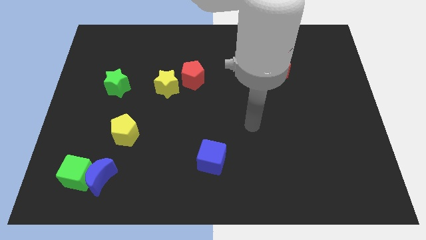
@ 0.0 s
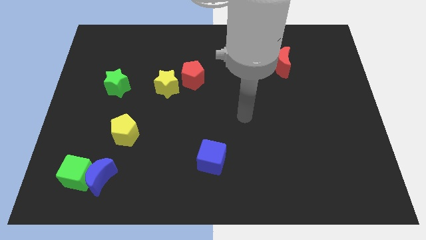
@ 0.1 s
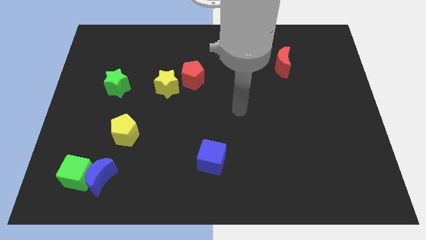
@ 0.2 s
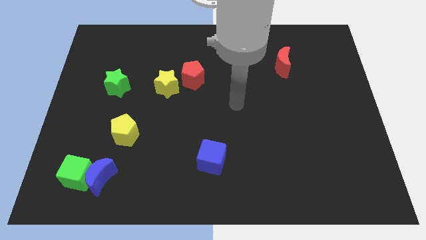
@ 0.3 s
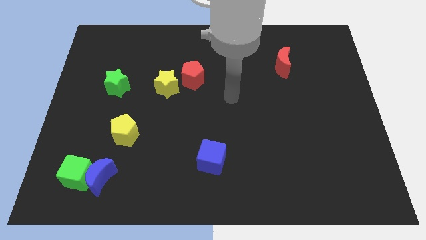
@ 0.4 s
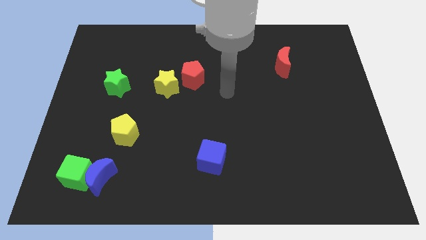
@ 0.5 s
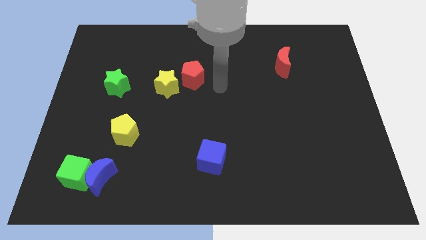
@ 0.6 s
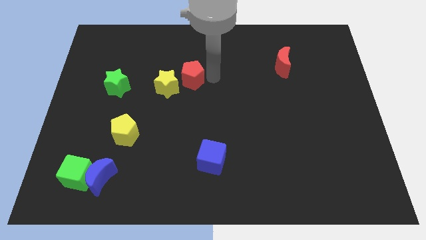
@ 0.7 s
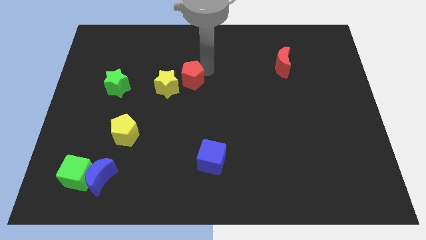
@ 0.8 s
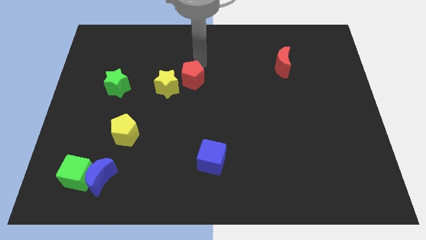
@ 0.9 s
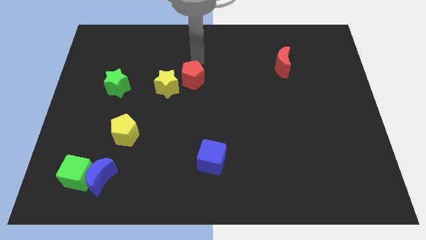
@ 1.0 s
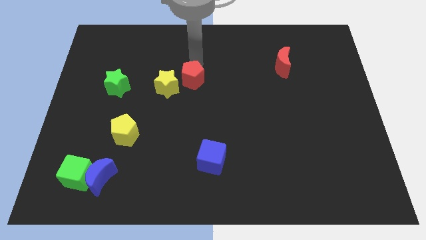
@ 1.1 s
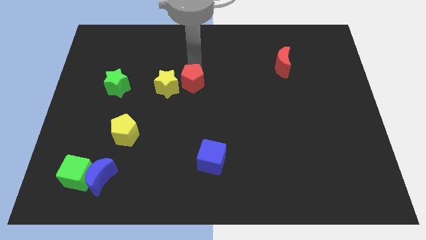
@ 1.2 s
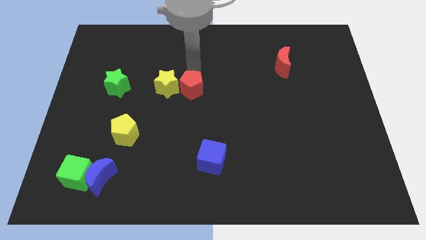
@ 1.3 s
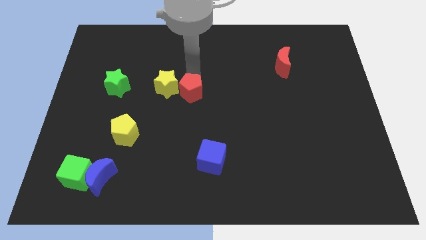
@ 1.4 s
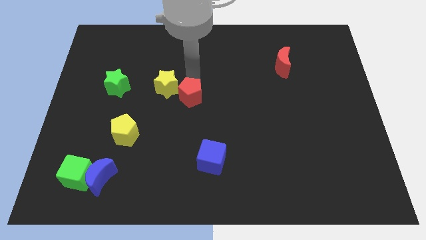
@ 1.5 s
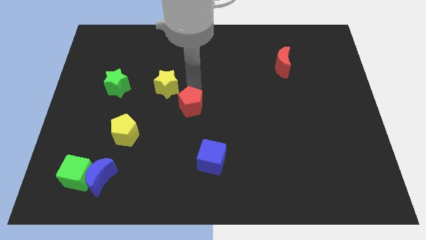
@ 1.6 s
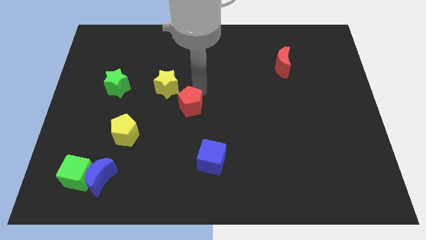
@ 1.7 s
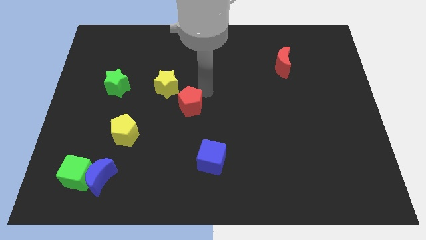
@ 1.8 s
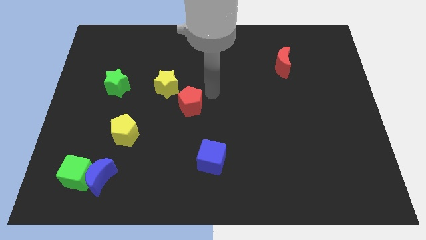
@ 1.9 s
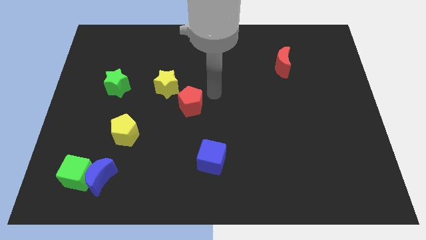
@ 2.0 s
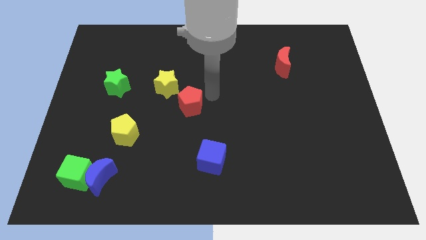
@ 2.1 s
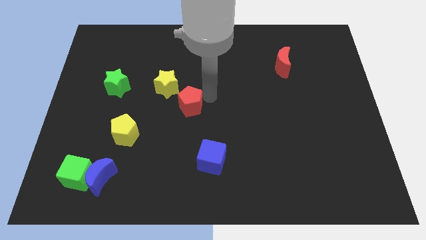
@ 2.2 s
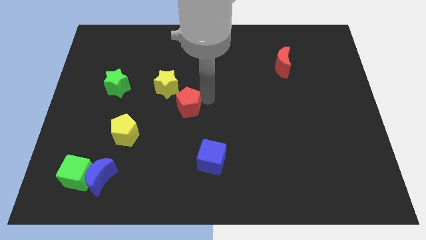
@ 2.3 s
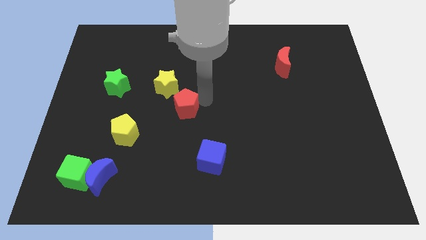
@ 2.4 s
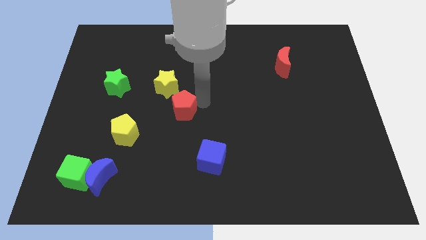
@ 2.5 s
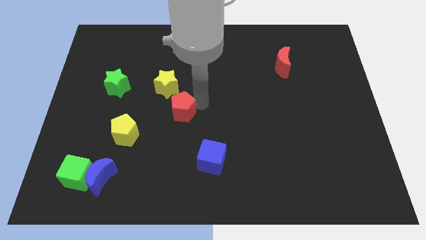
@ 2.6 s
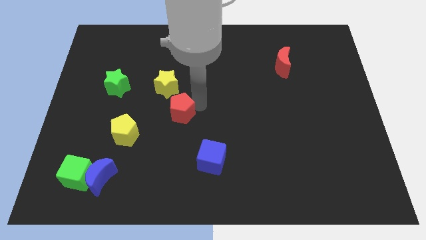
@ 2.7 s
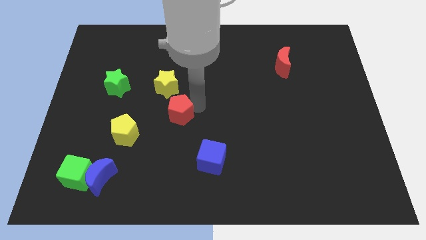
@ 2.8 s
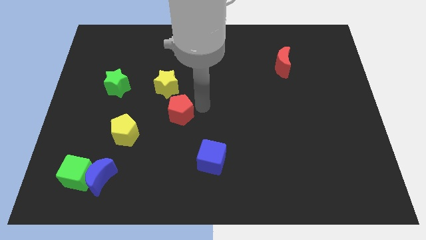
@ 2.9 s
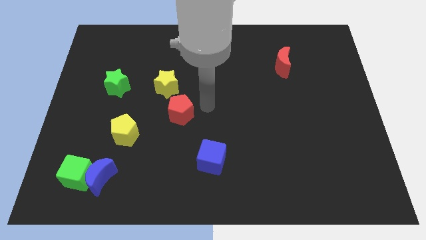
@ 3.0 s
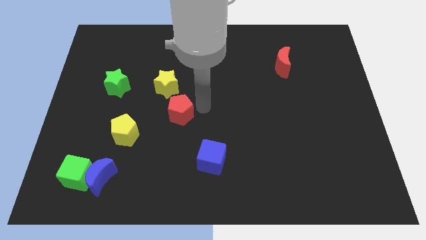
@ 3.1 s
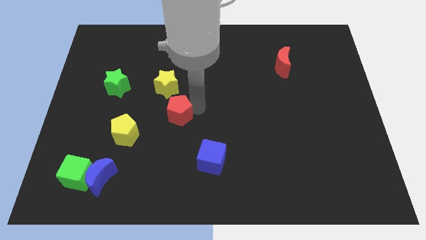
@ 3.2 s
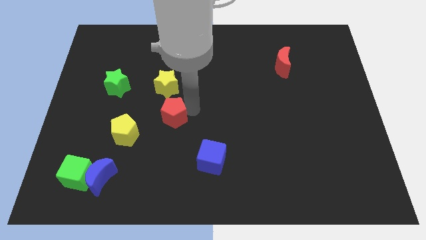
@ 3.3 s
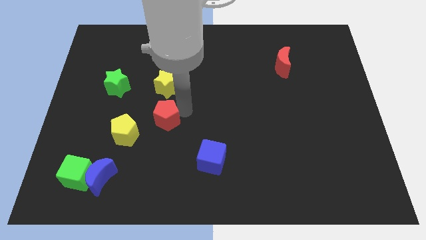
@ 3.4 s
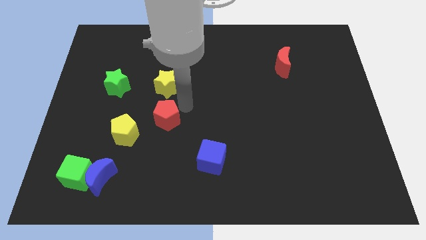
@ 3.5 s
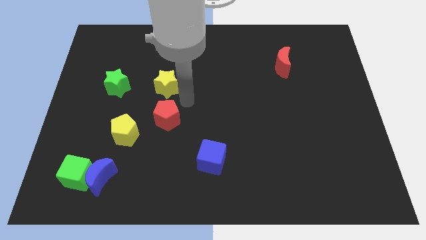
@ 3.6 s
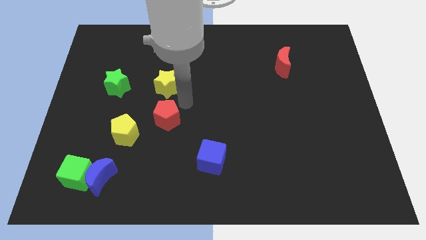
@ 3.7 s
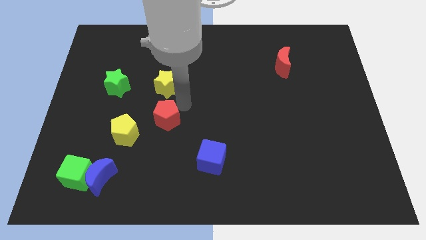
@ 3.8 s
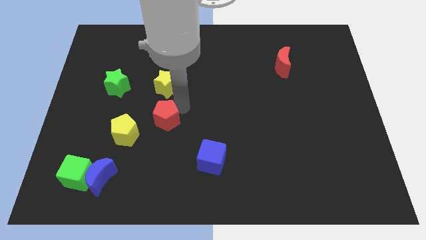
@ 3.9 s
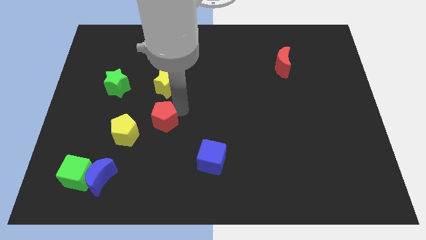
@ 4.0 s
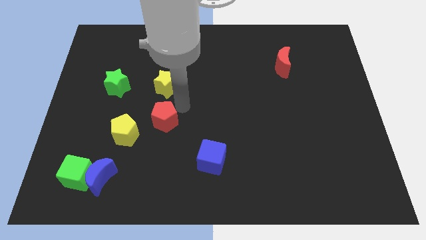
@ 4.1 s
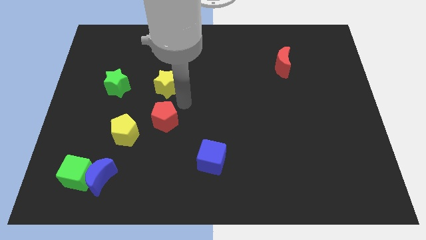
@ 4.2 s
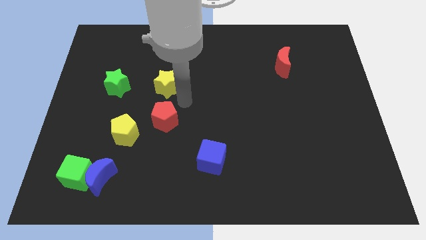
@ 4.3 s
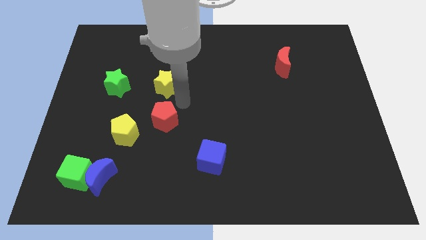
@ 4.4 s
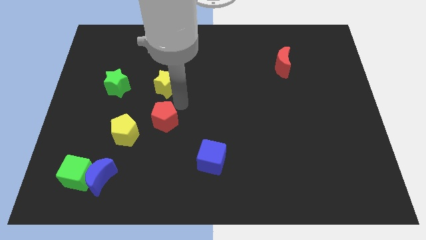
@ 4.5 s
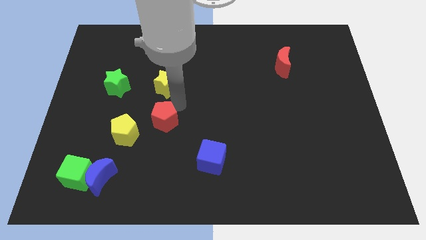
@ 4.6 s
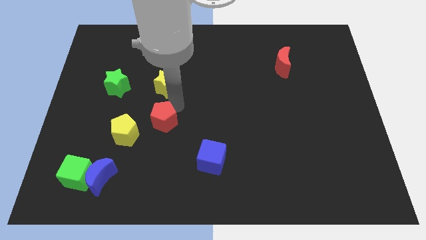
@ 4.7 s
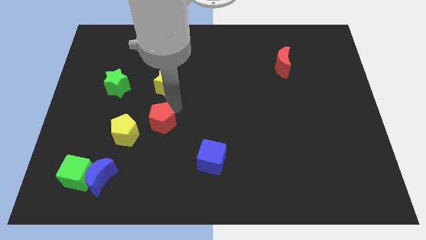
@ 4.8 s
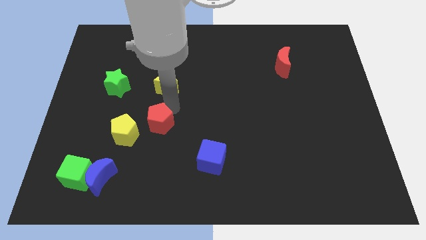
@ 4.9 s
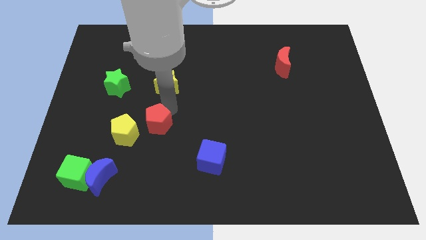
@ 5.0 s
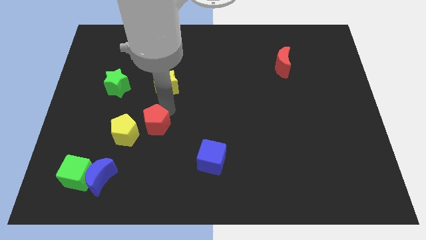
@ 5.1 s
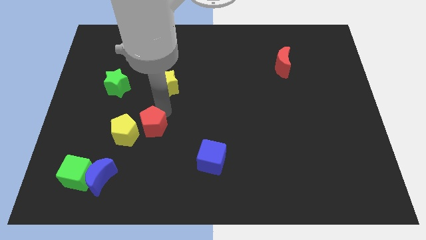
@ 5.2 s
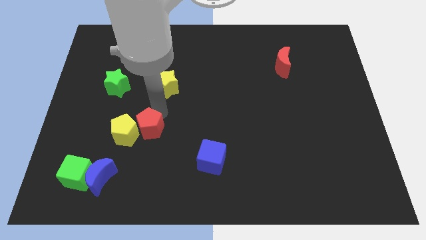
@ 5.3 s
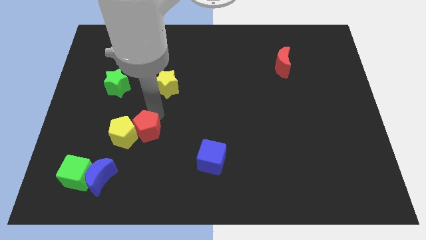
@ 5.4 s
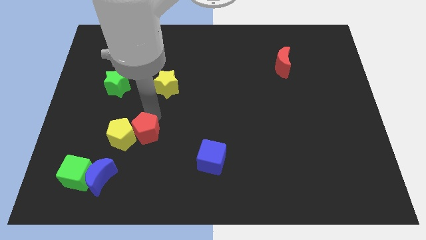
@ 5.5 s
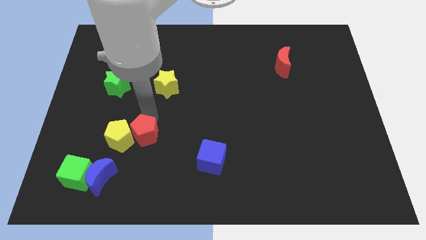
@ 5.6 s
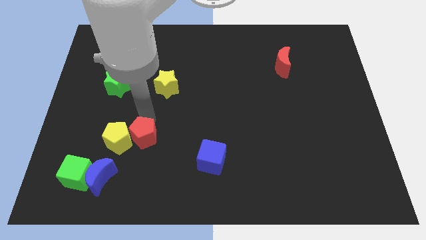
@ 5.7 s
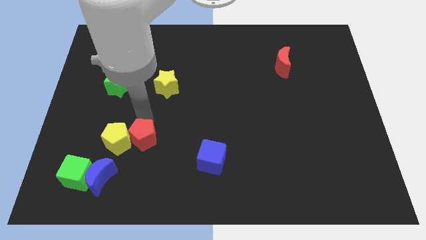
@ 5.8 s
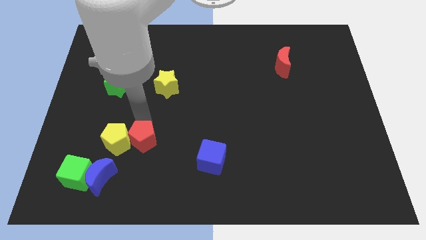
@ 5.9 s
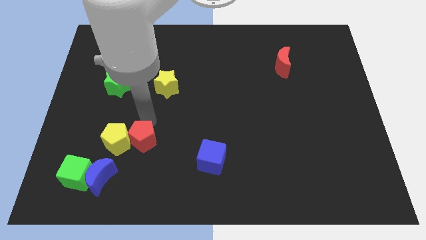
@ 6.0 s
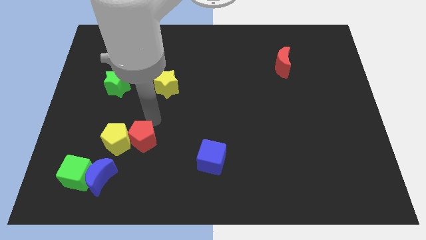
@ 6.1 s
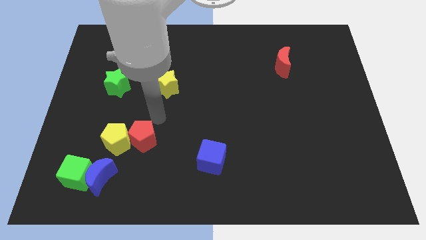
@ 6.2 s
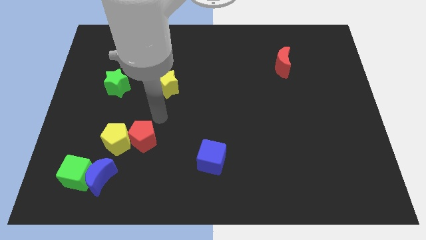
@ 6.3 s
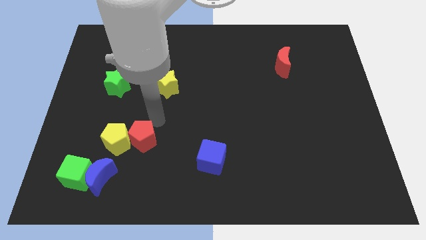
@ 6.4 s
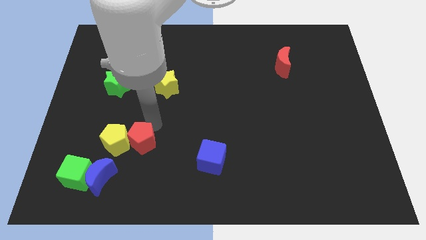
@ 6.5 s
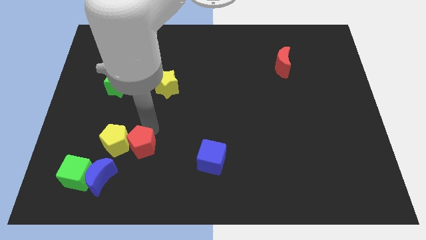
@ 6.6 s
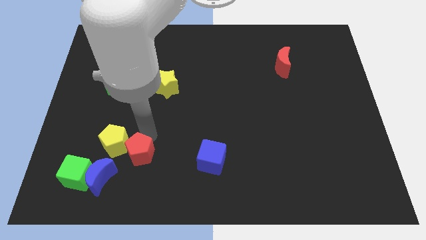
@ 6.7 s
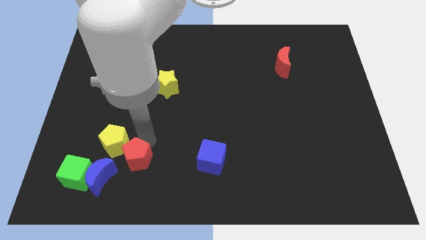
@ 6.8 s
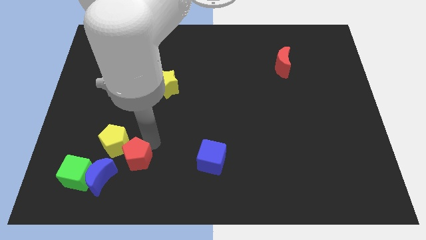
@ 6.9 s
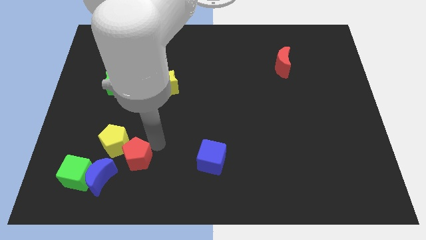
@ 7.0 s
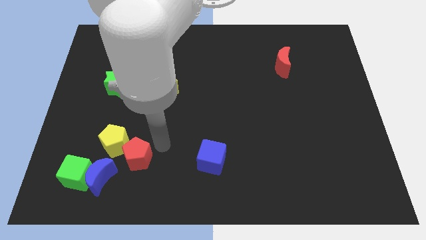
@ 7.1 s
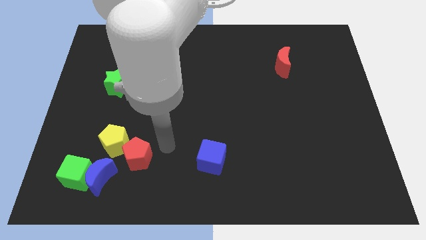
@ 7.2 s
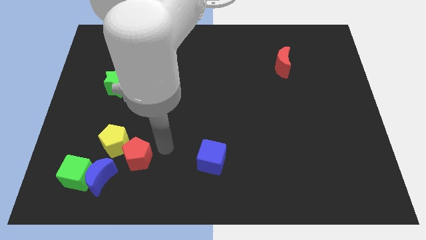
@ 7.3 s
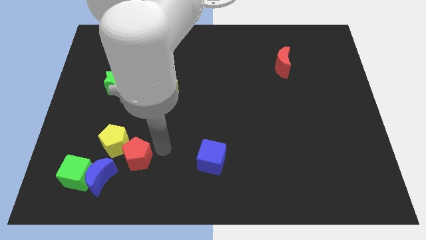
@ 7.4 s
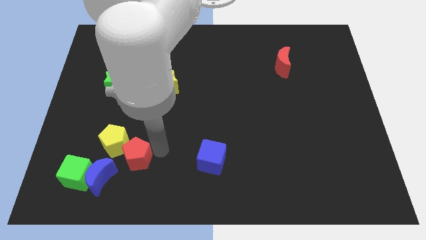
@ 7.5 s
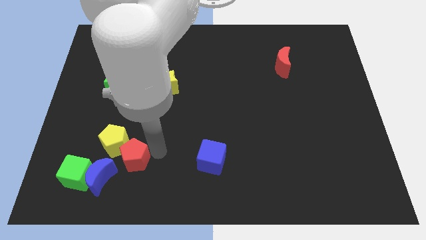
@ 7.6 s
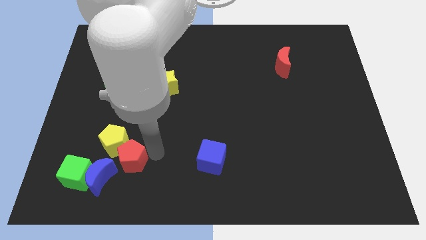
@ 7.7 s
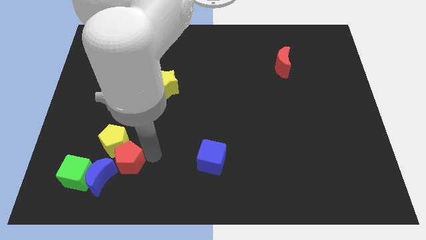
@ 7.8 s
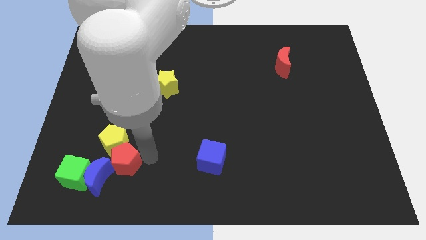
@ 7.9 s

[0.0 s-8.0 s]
slide the red pentagon to the blue moon

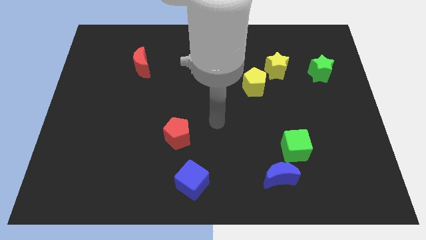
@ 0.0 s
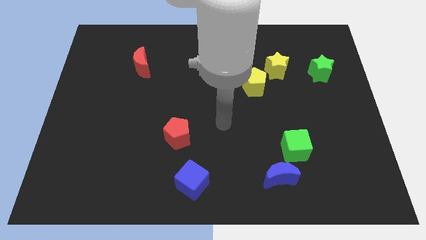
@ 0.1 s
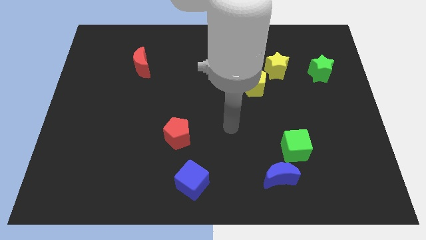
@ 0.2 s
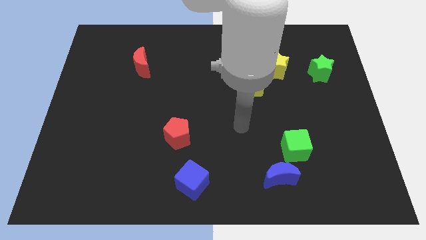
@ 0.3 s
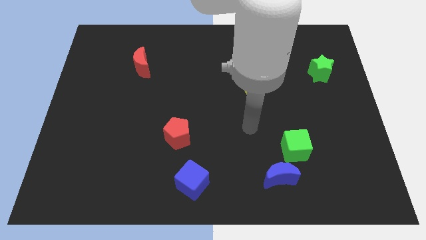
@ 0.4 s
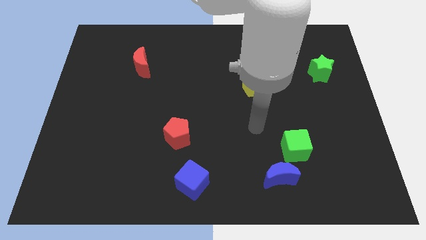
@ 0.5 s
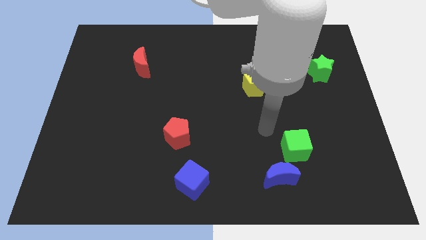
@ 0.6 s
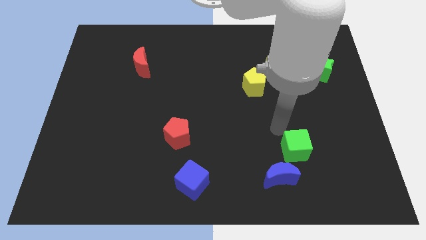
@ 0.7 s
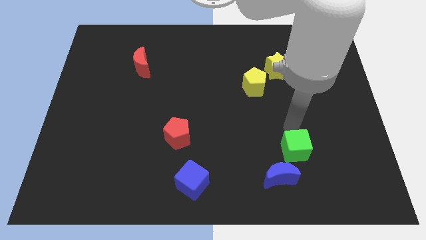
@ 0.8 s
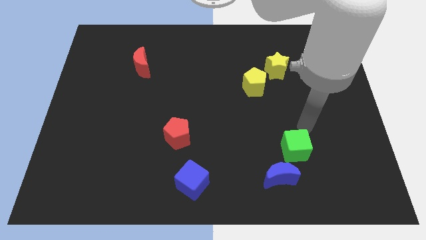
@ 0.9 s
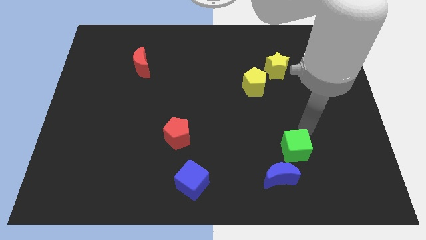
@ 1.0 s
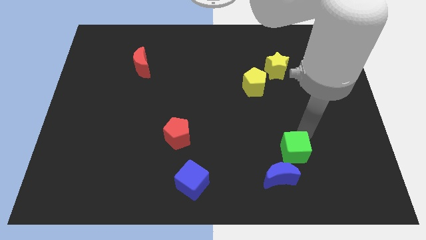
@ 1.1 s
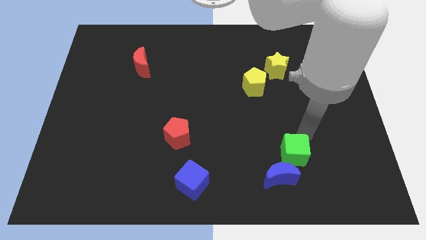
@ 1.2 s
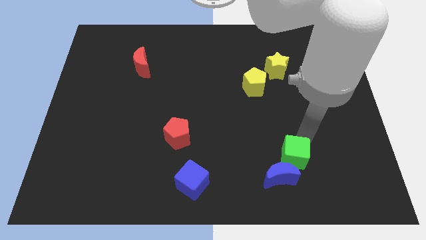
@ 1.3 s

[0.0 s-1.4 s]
move the green cube to the blue moon
